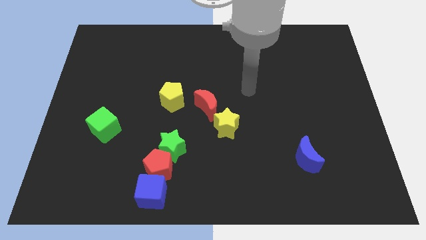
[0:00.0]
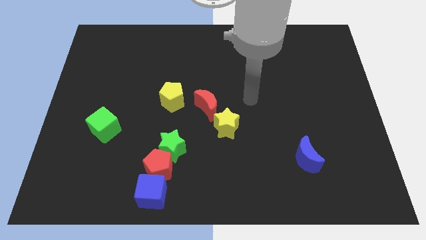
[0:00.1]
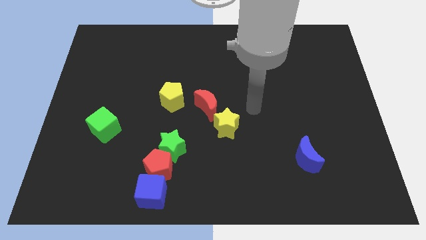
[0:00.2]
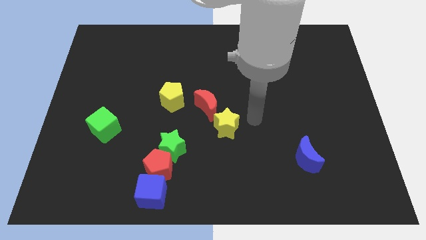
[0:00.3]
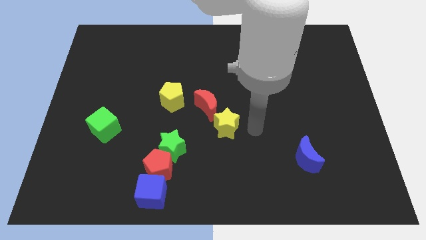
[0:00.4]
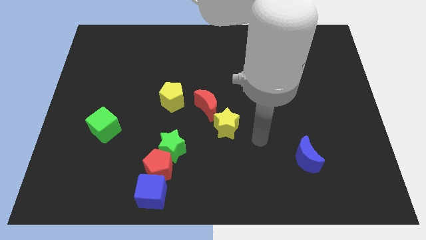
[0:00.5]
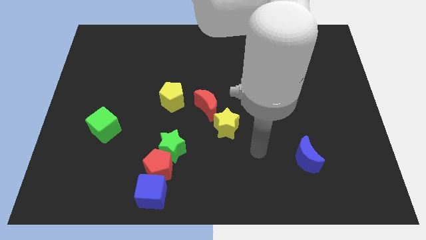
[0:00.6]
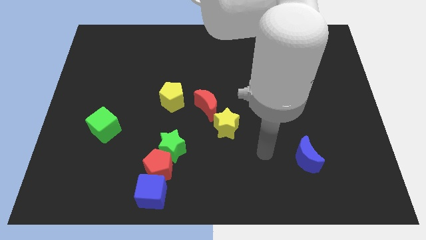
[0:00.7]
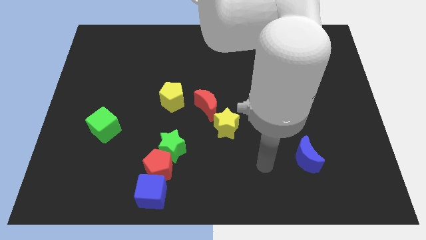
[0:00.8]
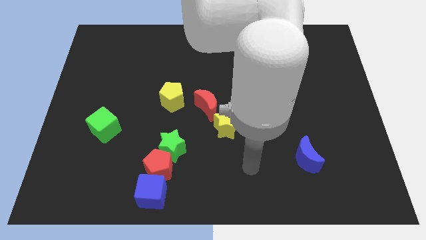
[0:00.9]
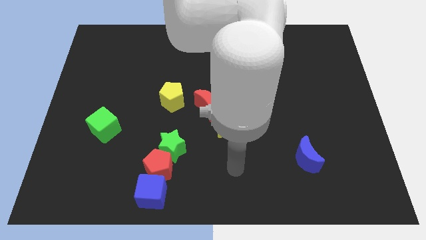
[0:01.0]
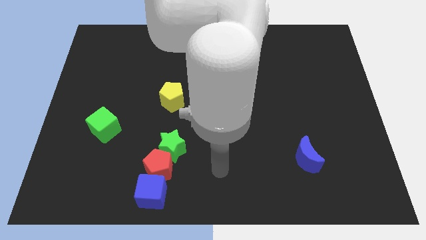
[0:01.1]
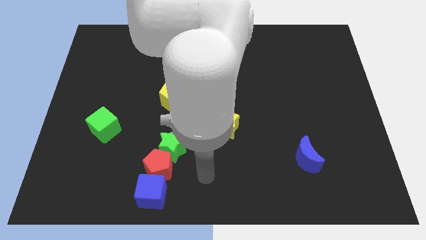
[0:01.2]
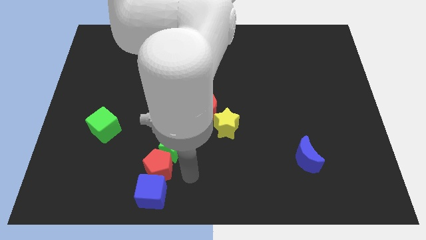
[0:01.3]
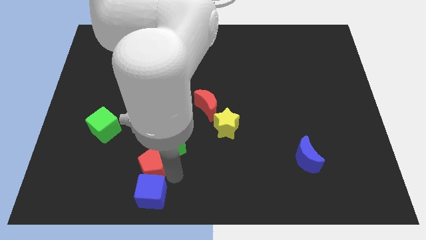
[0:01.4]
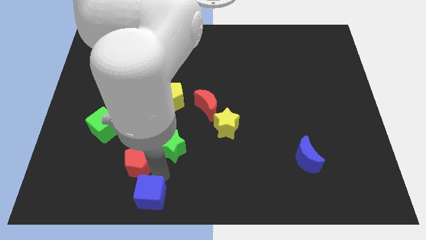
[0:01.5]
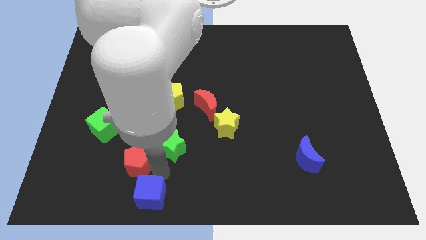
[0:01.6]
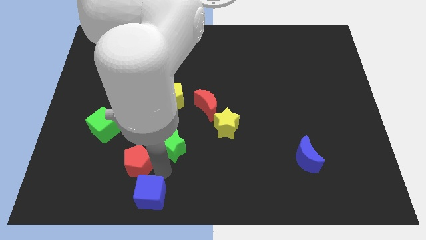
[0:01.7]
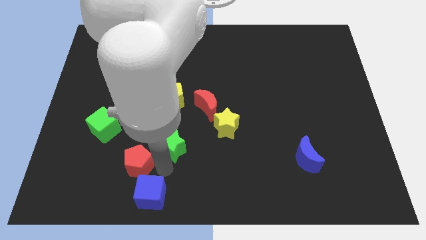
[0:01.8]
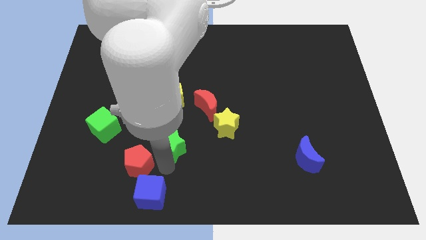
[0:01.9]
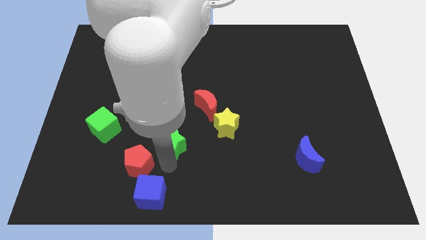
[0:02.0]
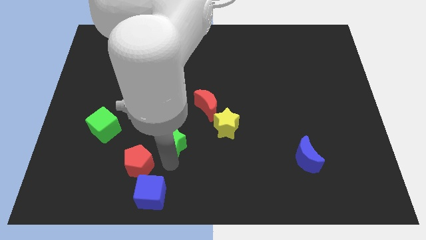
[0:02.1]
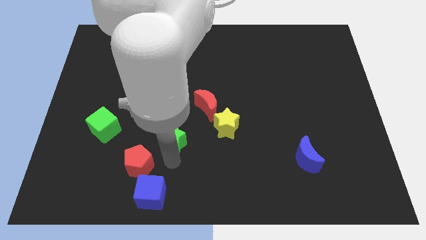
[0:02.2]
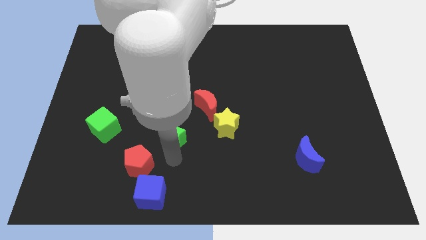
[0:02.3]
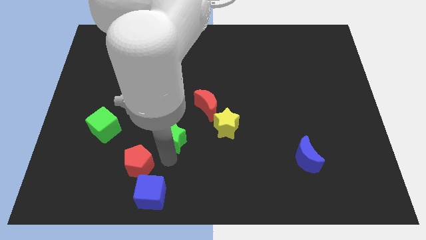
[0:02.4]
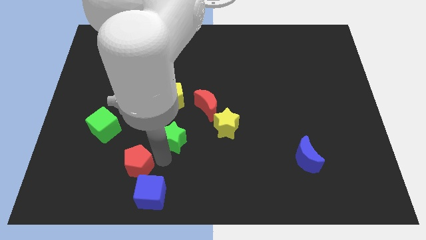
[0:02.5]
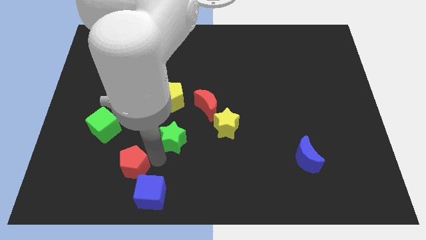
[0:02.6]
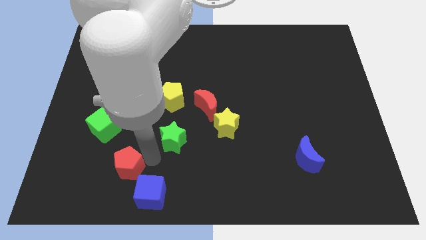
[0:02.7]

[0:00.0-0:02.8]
separate the green star from the red pentagon

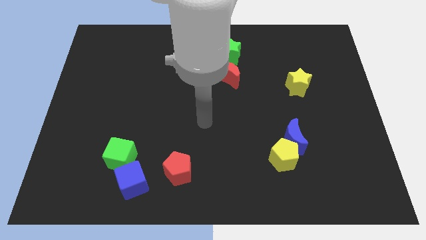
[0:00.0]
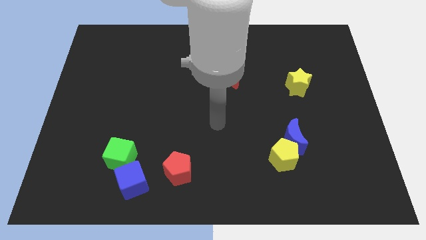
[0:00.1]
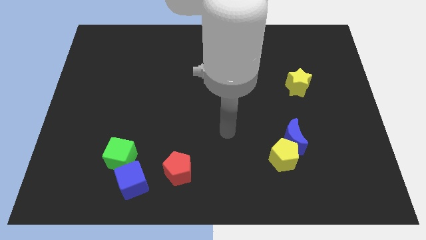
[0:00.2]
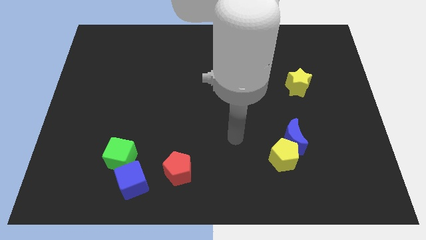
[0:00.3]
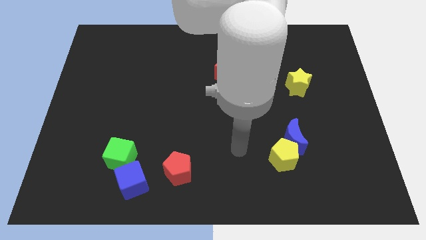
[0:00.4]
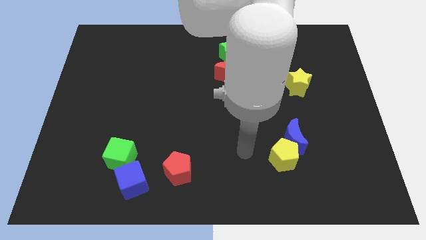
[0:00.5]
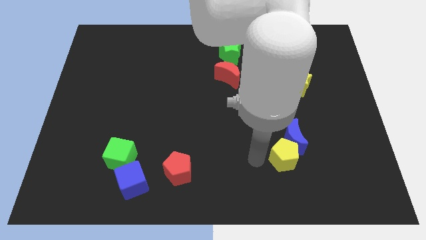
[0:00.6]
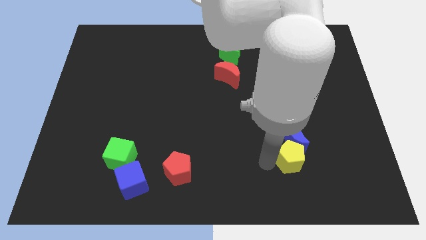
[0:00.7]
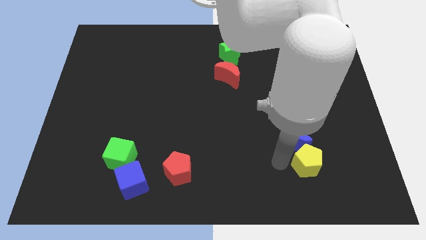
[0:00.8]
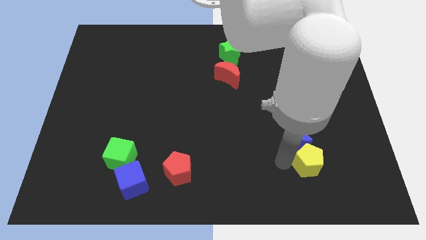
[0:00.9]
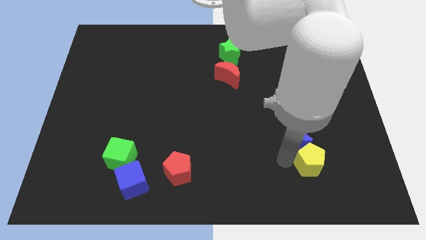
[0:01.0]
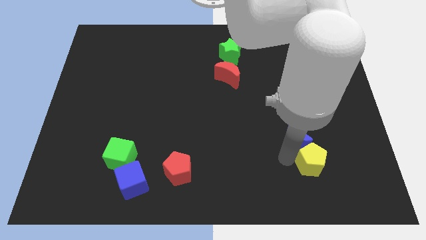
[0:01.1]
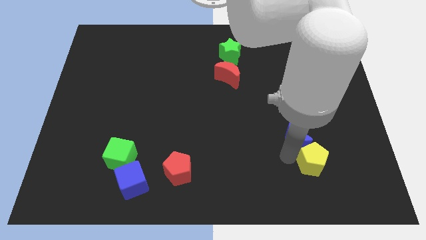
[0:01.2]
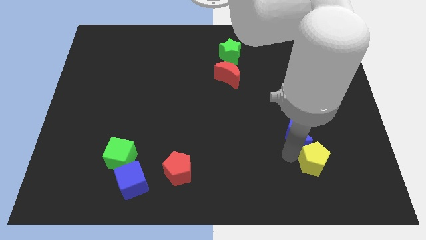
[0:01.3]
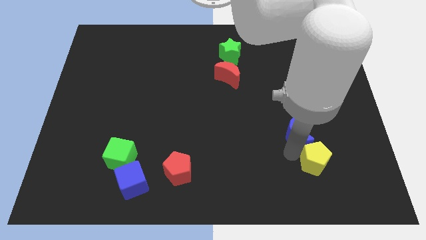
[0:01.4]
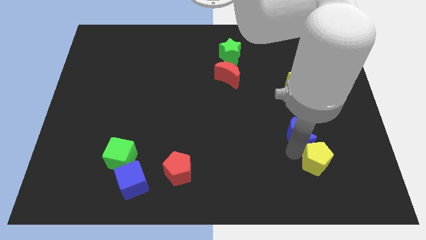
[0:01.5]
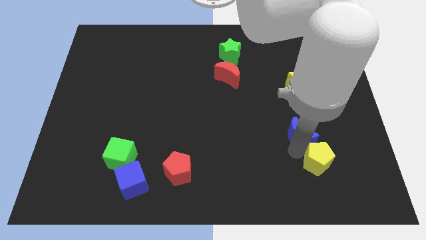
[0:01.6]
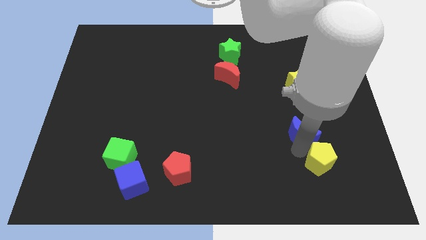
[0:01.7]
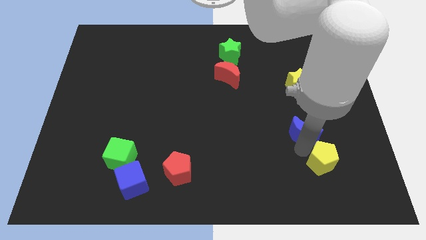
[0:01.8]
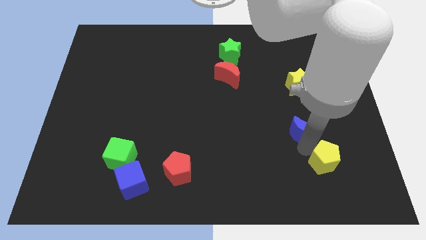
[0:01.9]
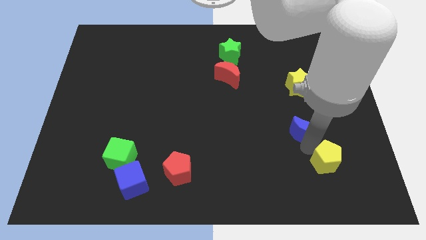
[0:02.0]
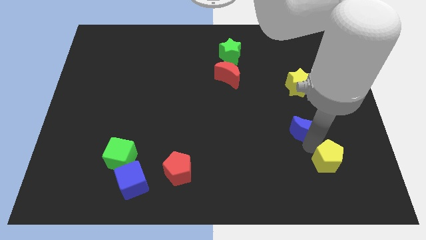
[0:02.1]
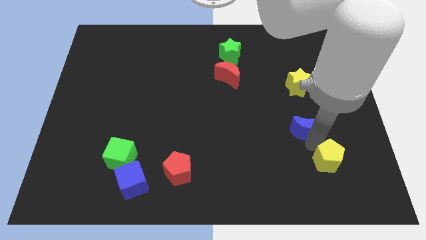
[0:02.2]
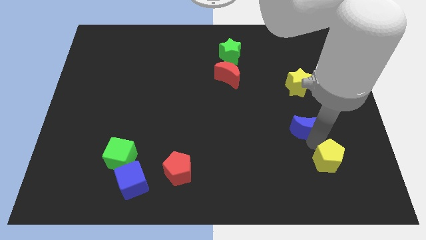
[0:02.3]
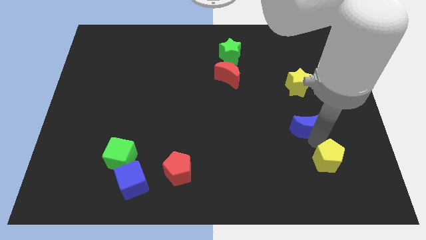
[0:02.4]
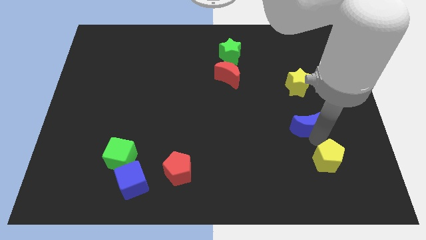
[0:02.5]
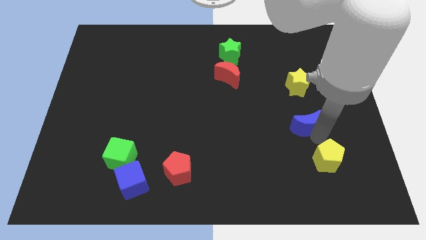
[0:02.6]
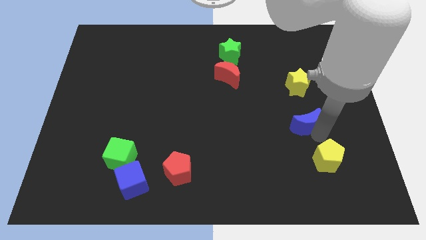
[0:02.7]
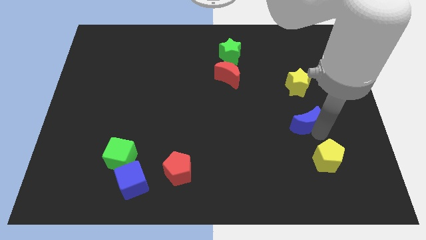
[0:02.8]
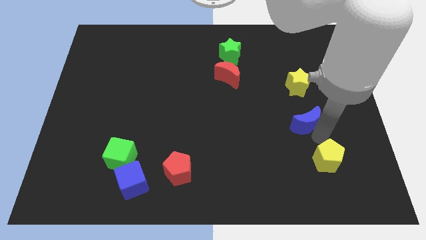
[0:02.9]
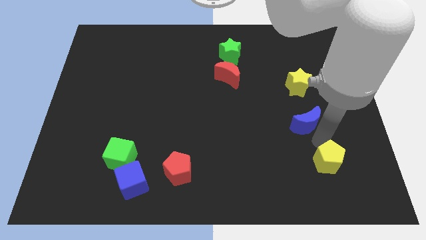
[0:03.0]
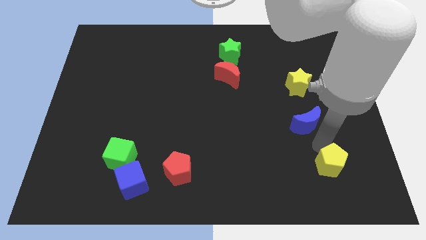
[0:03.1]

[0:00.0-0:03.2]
pull the blue moon apart from the yellow pentagon

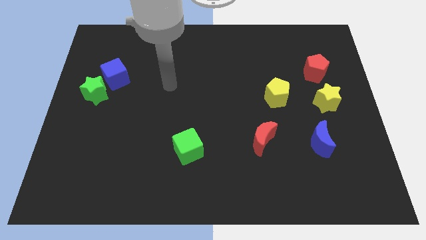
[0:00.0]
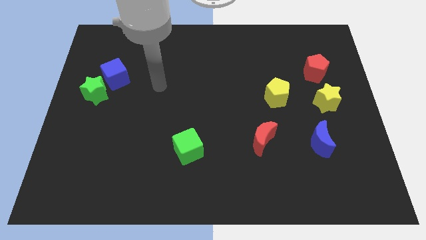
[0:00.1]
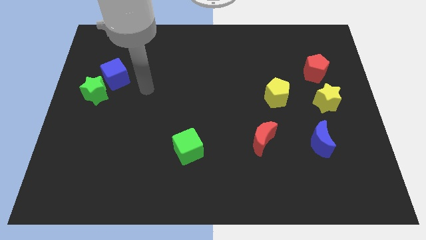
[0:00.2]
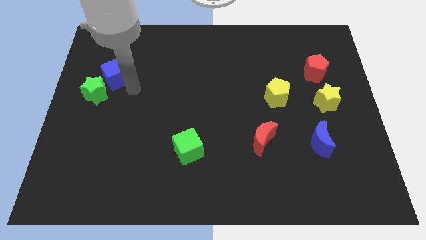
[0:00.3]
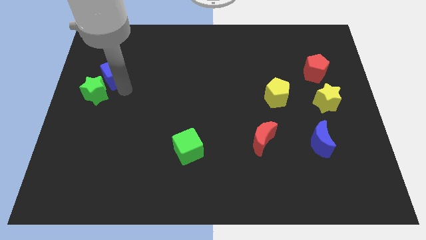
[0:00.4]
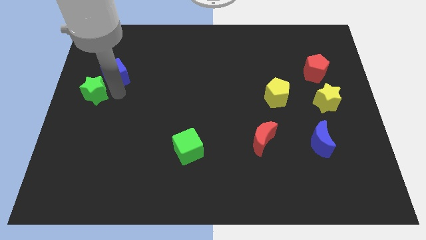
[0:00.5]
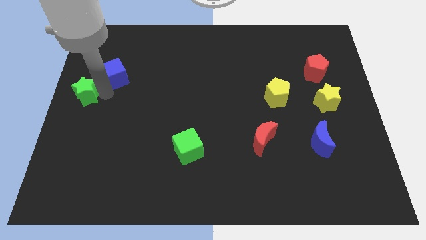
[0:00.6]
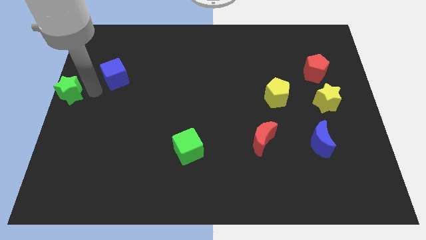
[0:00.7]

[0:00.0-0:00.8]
move the blue cube away from the green star

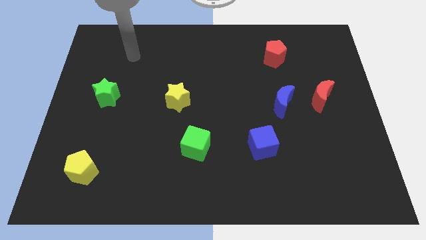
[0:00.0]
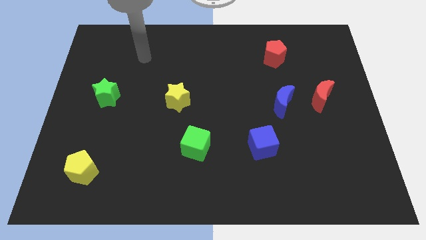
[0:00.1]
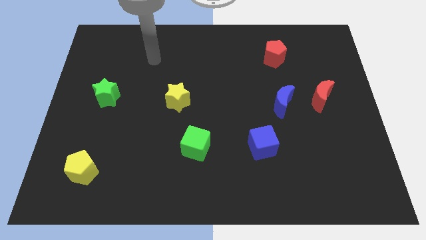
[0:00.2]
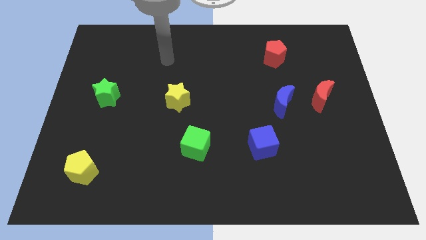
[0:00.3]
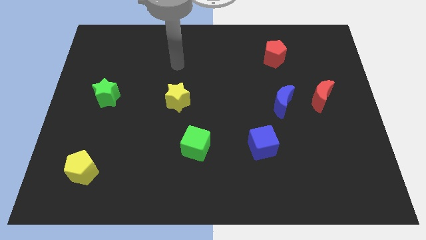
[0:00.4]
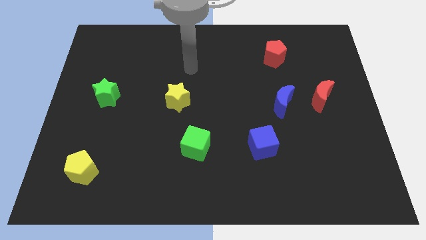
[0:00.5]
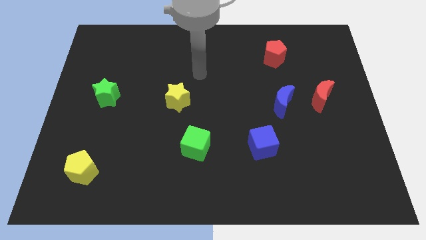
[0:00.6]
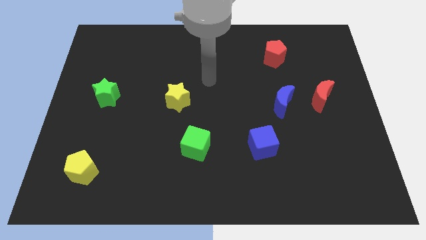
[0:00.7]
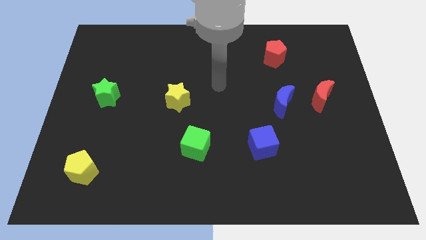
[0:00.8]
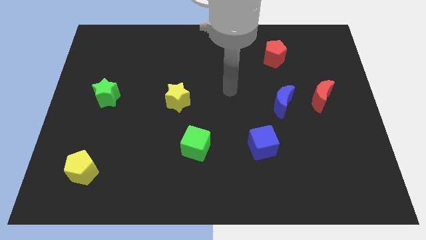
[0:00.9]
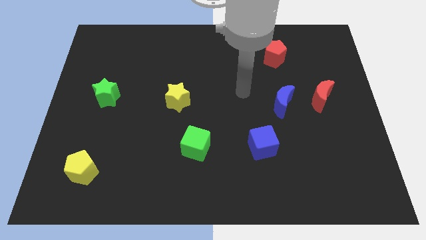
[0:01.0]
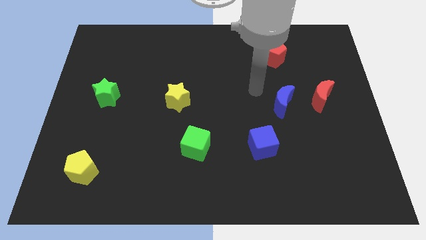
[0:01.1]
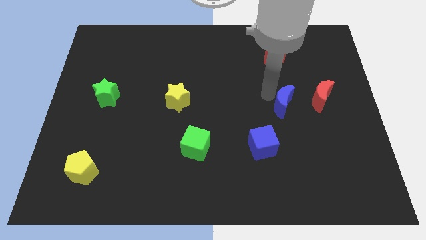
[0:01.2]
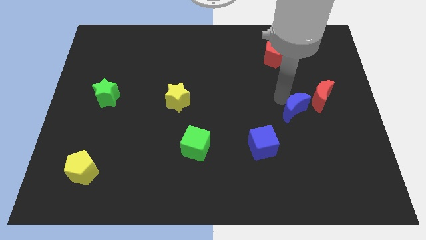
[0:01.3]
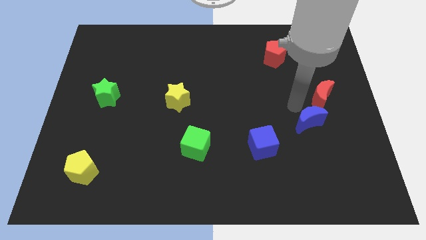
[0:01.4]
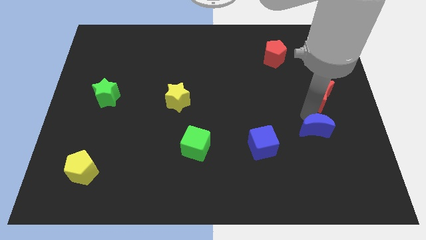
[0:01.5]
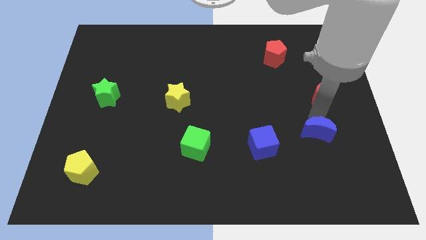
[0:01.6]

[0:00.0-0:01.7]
separate the red moon from the blue moon

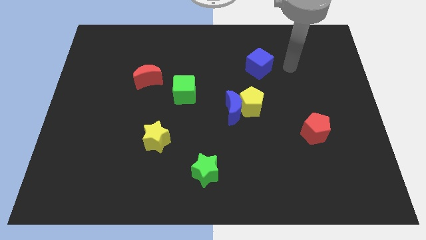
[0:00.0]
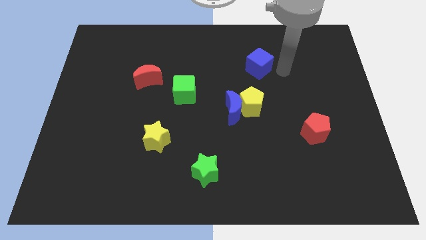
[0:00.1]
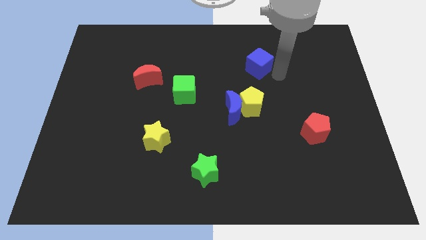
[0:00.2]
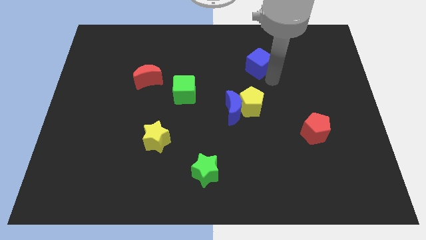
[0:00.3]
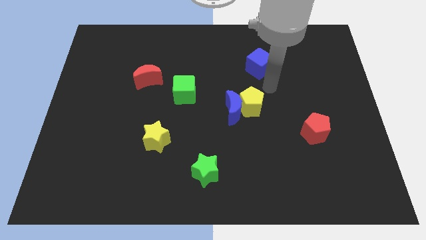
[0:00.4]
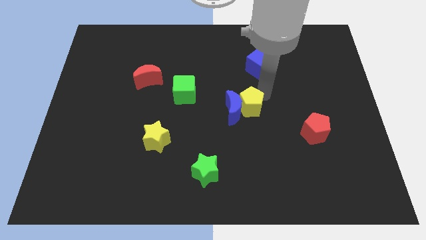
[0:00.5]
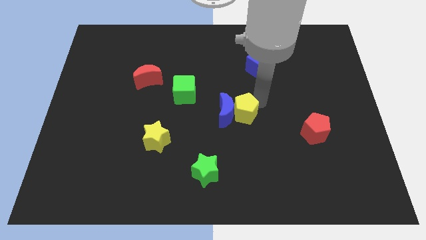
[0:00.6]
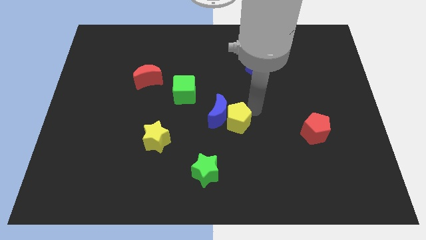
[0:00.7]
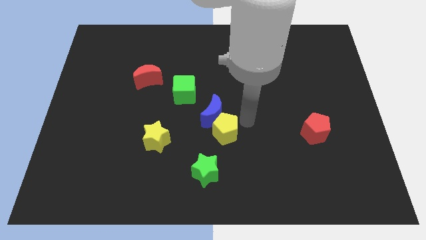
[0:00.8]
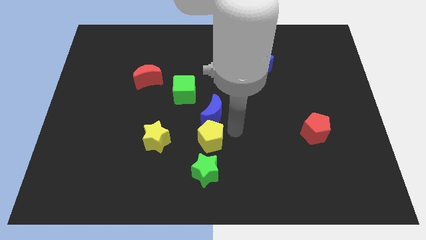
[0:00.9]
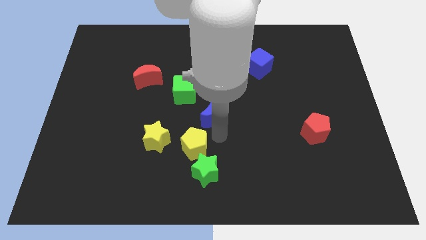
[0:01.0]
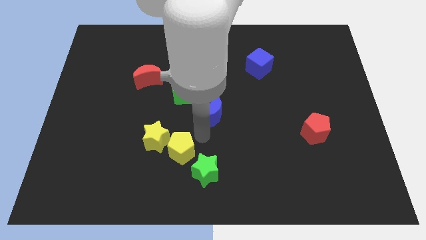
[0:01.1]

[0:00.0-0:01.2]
separate the blue moon from the yellow pentagon
